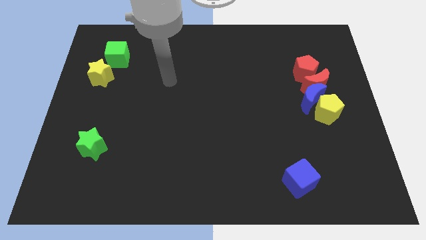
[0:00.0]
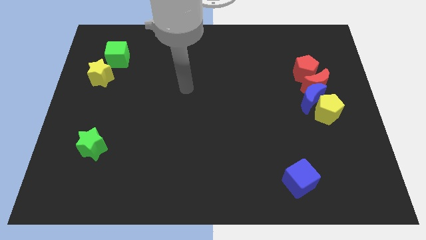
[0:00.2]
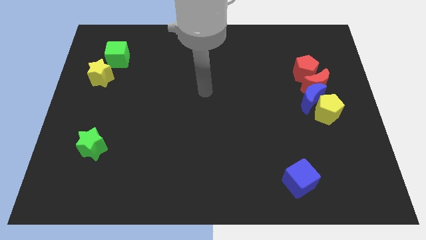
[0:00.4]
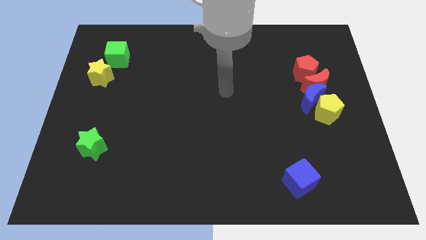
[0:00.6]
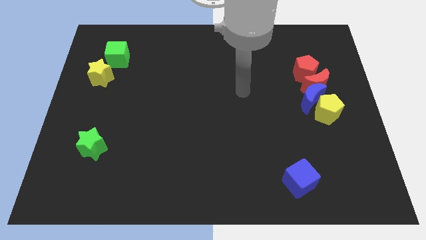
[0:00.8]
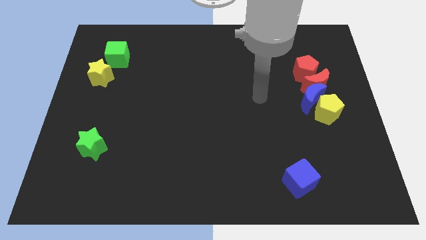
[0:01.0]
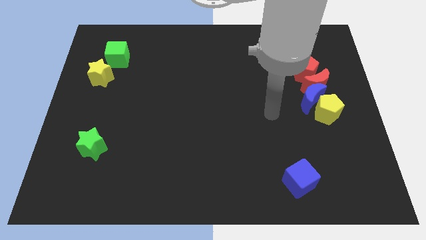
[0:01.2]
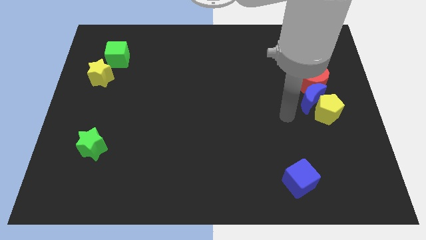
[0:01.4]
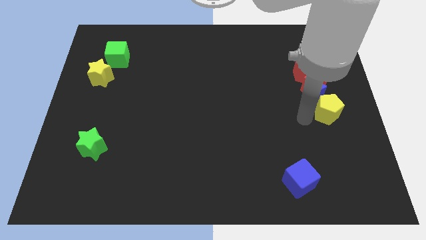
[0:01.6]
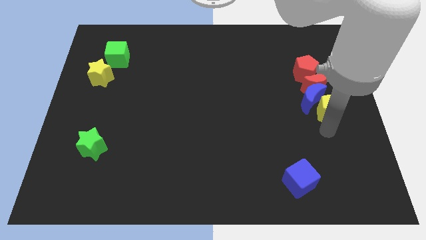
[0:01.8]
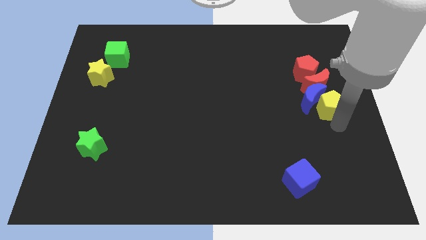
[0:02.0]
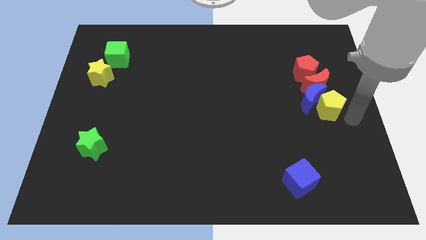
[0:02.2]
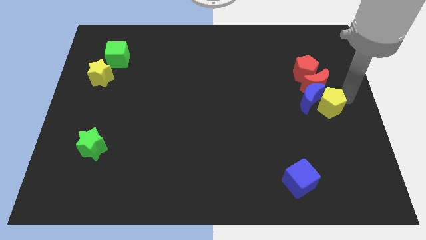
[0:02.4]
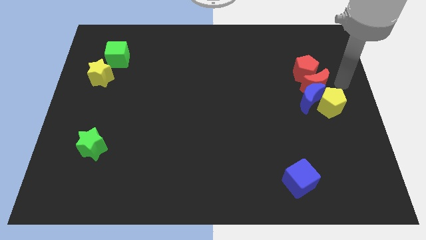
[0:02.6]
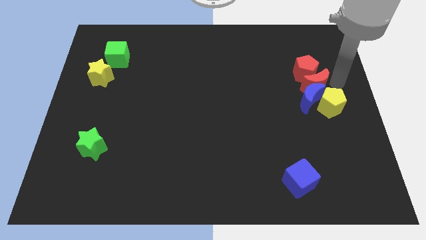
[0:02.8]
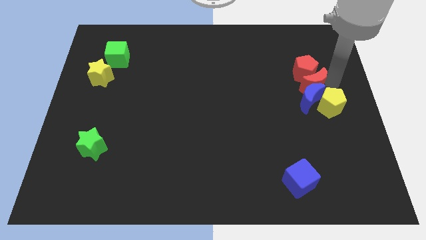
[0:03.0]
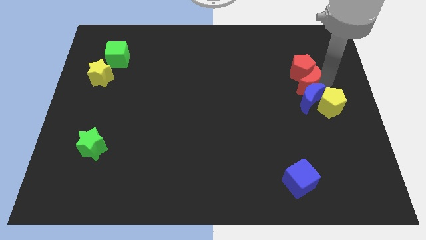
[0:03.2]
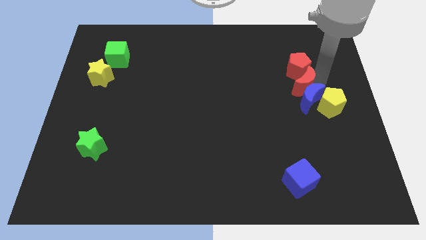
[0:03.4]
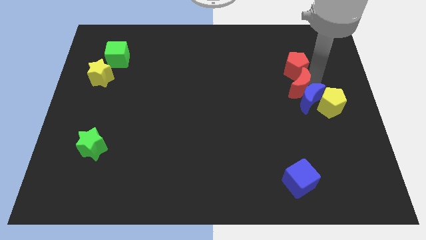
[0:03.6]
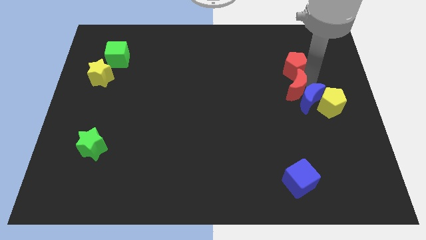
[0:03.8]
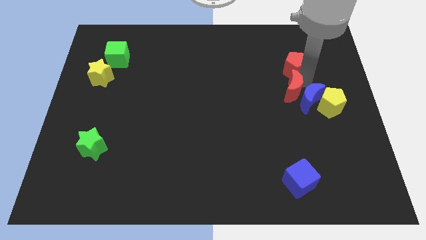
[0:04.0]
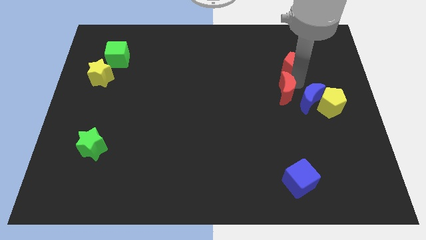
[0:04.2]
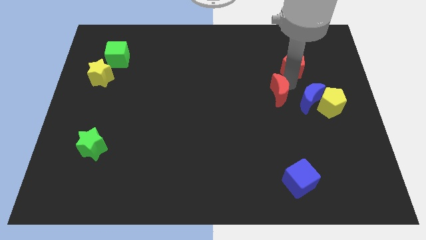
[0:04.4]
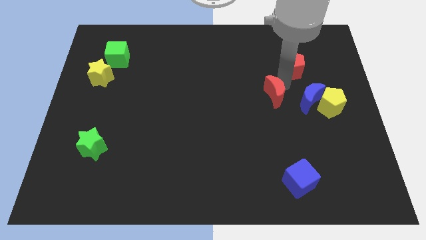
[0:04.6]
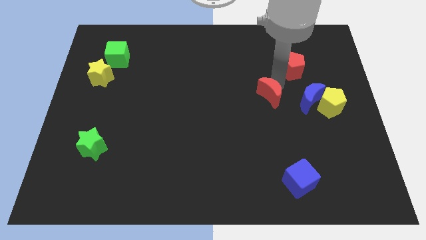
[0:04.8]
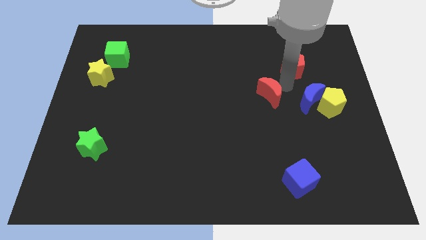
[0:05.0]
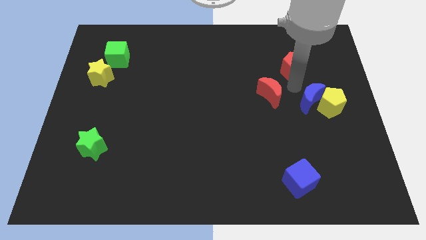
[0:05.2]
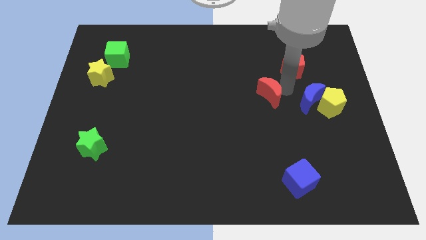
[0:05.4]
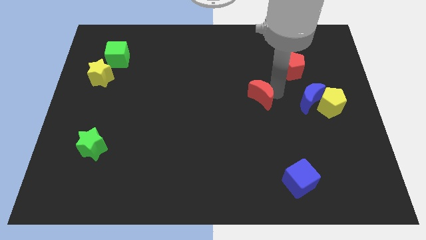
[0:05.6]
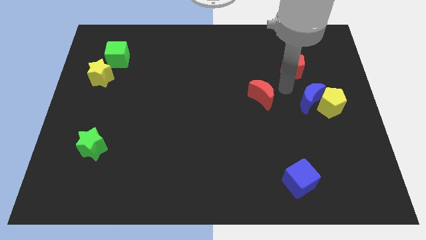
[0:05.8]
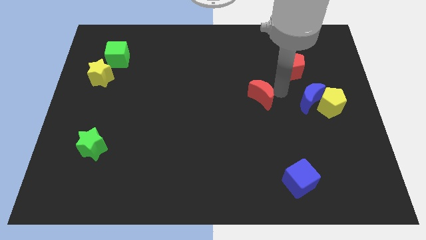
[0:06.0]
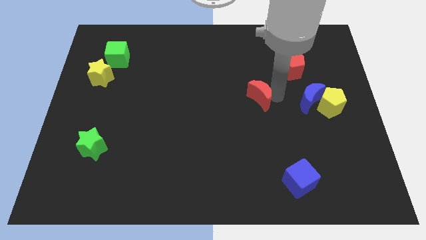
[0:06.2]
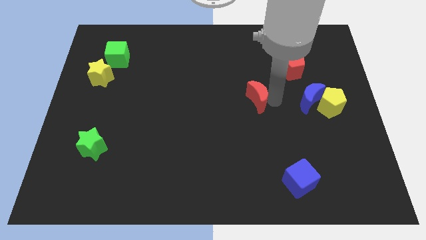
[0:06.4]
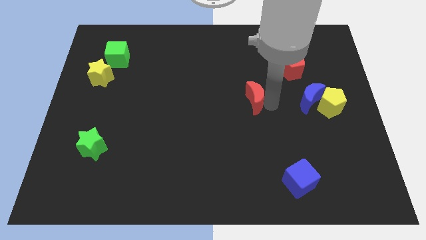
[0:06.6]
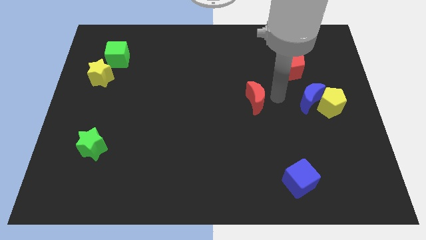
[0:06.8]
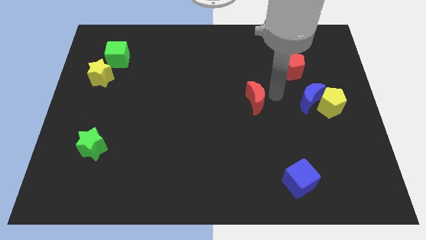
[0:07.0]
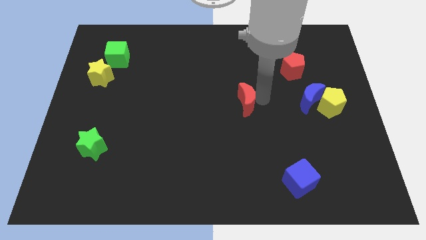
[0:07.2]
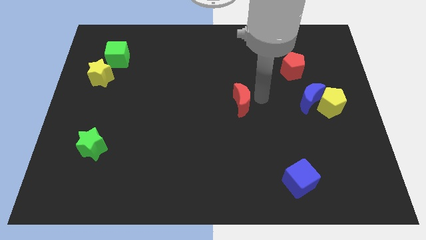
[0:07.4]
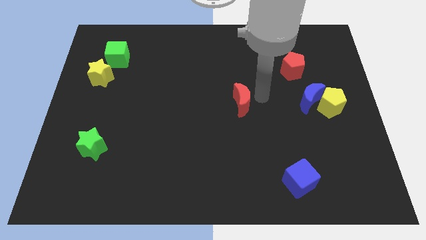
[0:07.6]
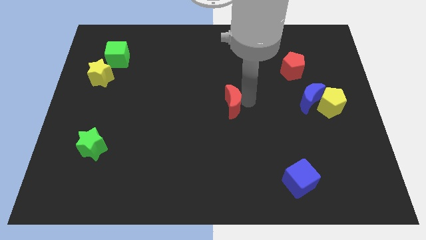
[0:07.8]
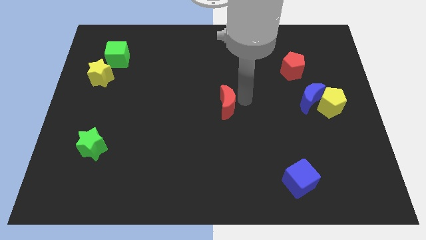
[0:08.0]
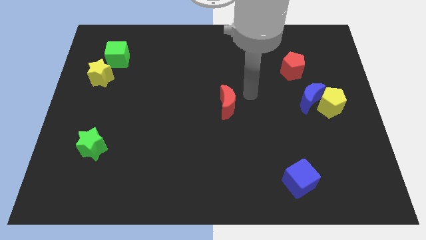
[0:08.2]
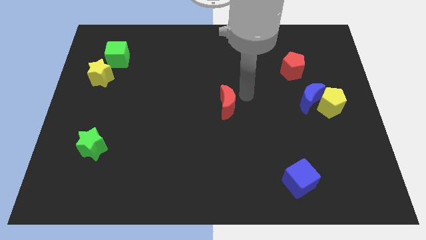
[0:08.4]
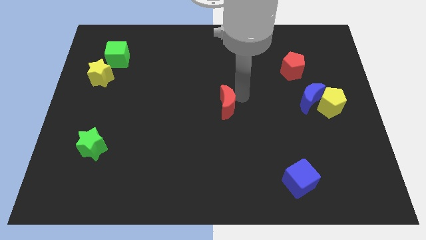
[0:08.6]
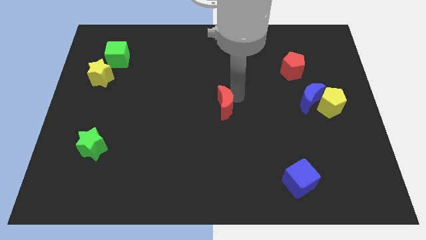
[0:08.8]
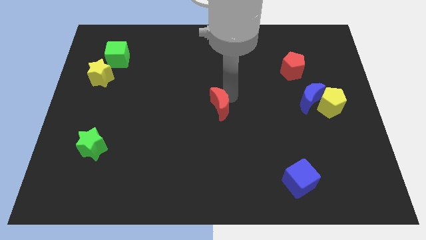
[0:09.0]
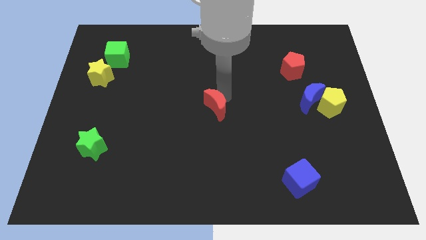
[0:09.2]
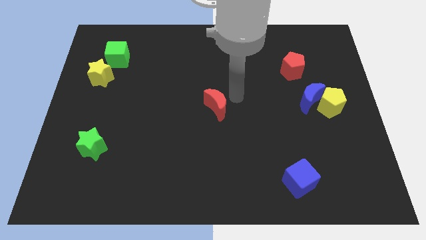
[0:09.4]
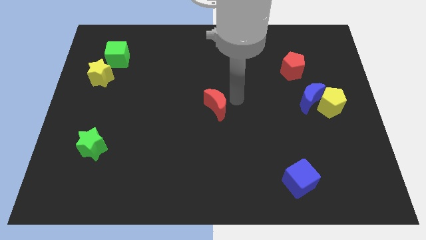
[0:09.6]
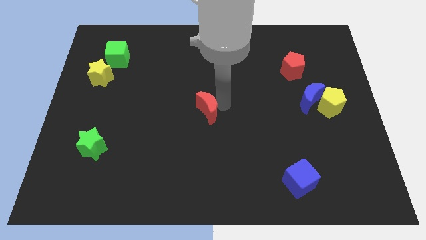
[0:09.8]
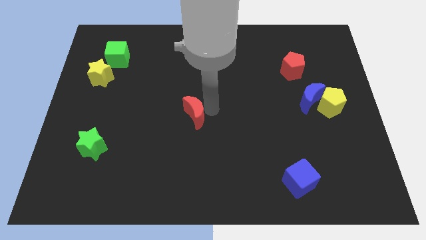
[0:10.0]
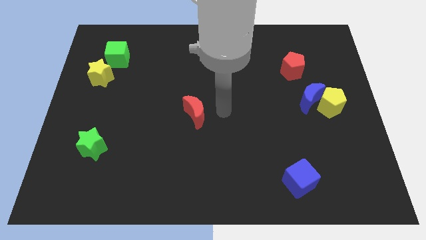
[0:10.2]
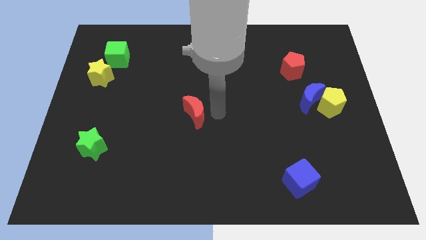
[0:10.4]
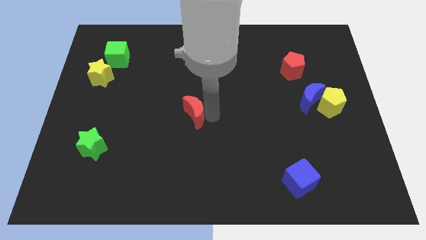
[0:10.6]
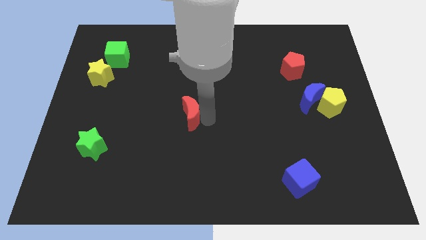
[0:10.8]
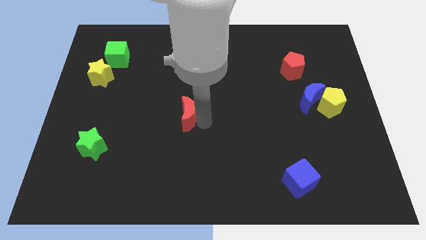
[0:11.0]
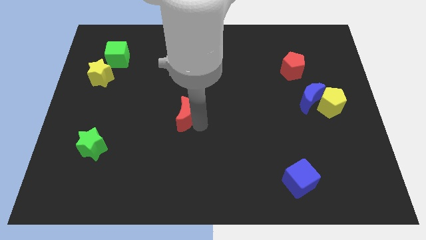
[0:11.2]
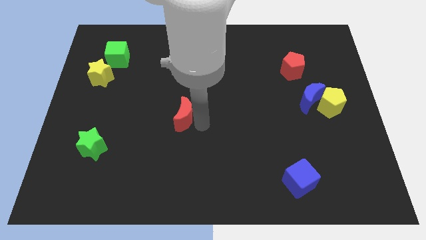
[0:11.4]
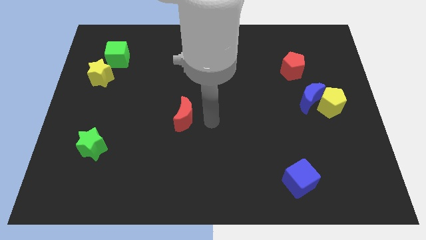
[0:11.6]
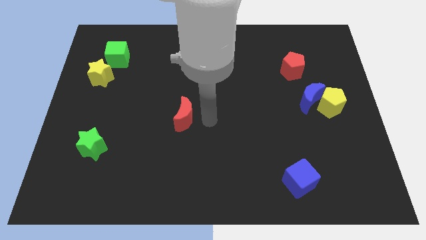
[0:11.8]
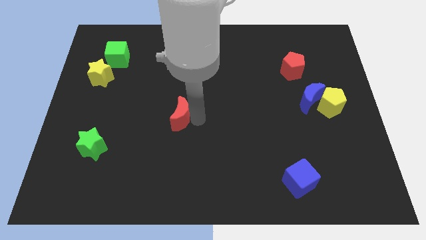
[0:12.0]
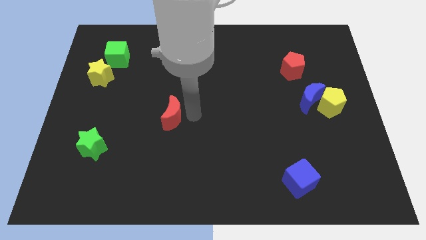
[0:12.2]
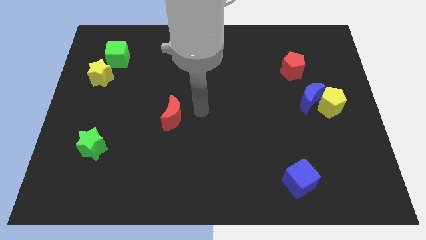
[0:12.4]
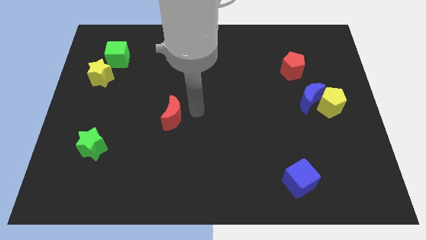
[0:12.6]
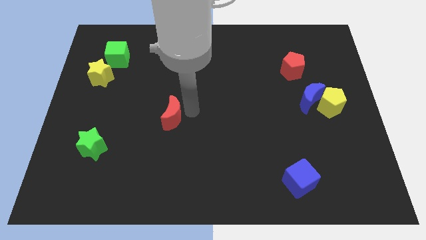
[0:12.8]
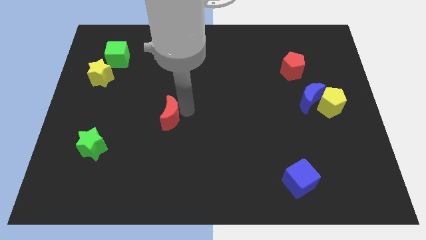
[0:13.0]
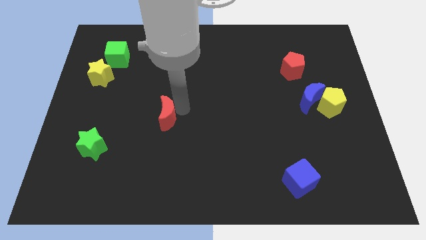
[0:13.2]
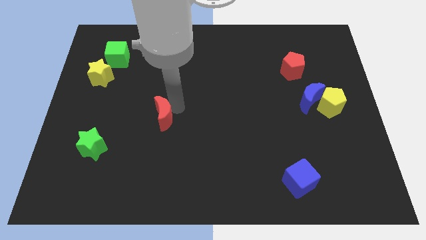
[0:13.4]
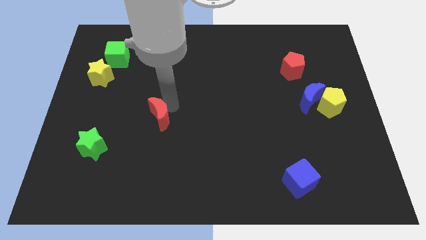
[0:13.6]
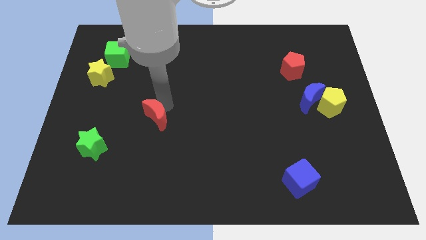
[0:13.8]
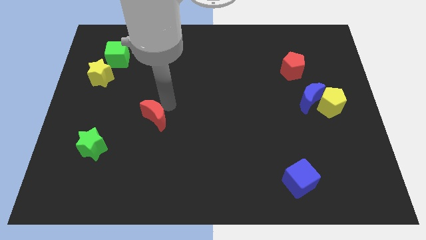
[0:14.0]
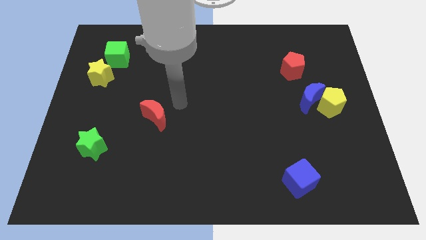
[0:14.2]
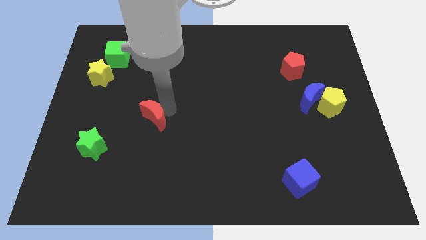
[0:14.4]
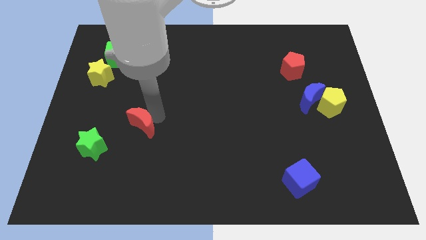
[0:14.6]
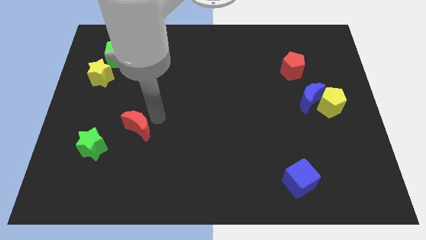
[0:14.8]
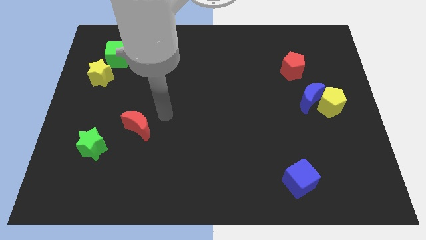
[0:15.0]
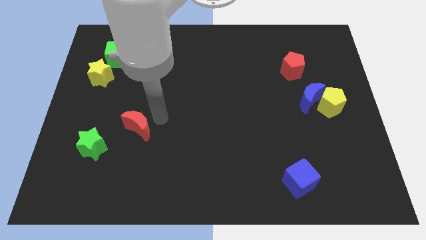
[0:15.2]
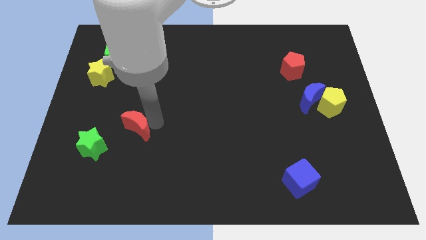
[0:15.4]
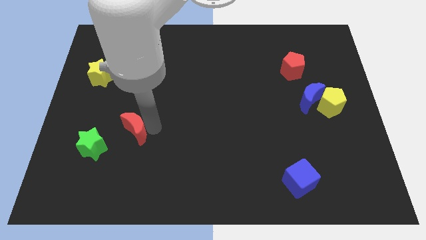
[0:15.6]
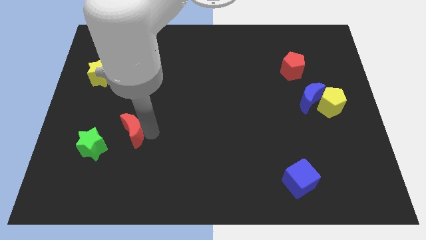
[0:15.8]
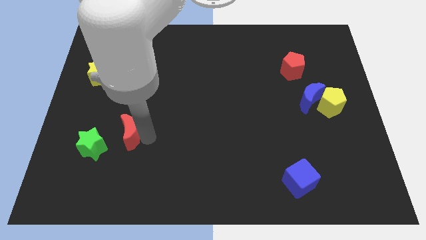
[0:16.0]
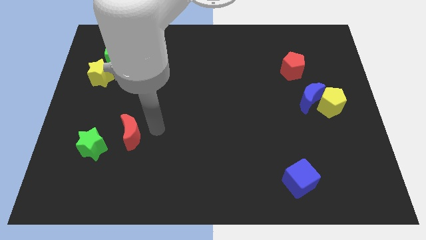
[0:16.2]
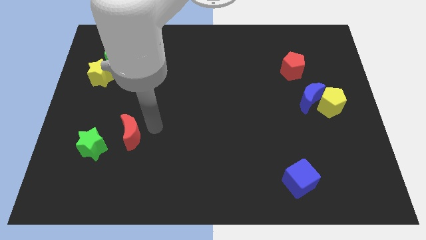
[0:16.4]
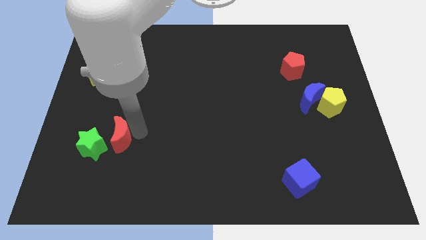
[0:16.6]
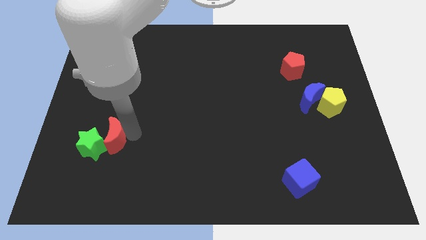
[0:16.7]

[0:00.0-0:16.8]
move the red moon close to the green star

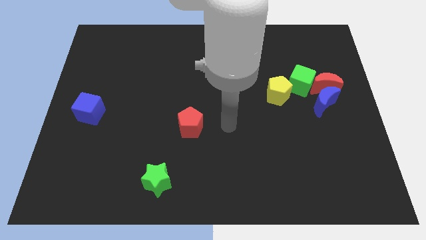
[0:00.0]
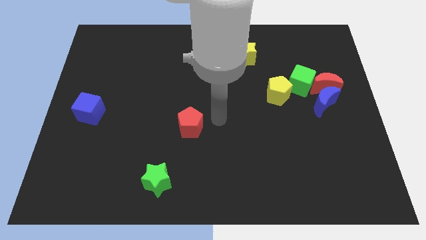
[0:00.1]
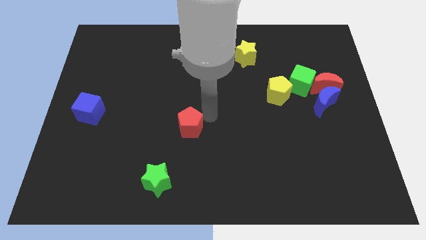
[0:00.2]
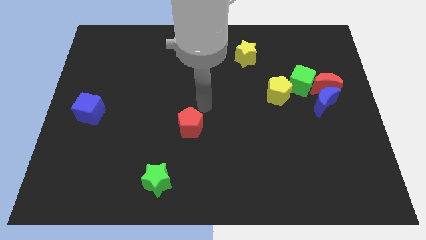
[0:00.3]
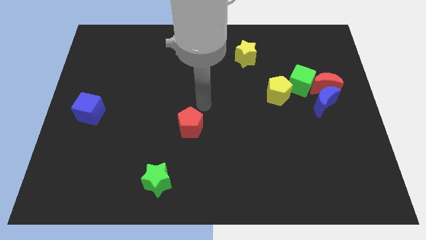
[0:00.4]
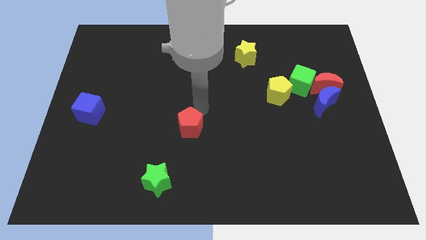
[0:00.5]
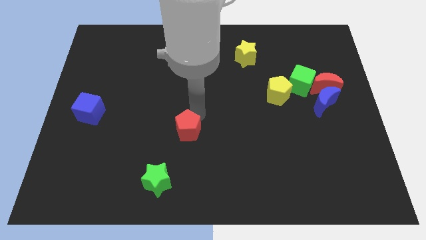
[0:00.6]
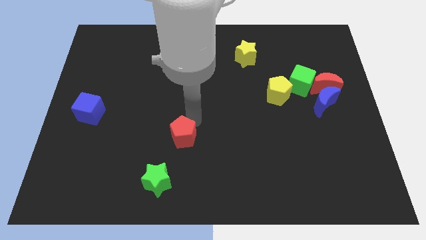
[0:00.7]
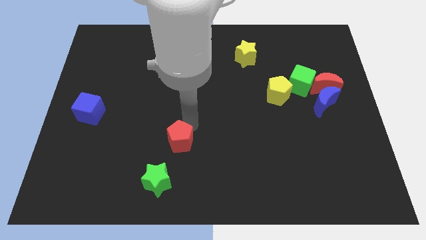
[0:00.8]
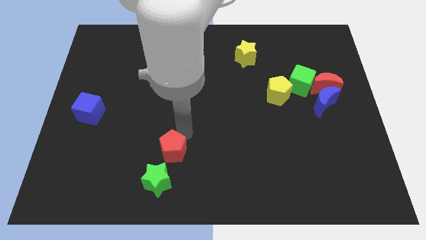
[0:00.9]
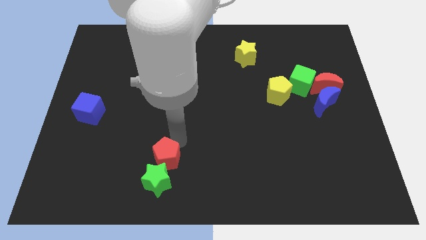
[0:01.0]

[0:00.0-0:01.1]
move the red pentagon next to the green star
